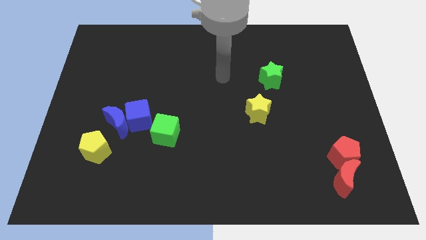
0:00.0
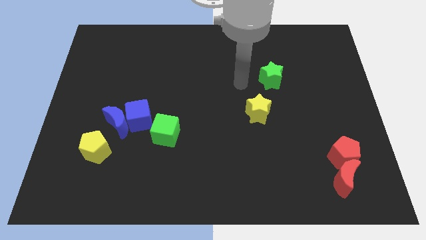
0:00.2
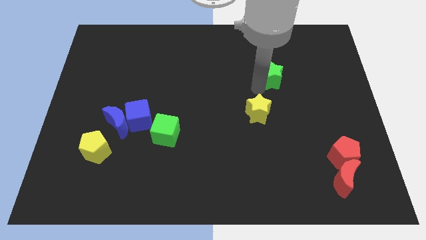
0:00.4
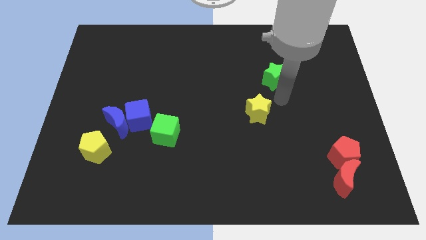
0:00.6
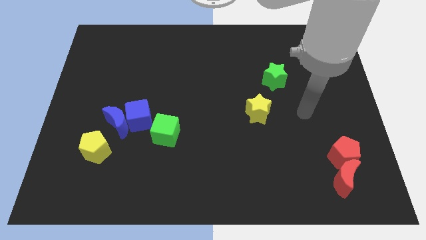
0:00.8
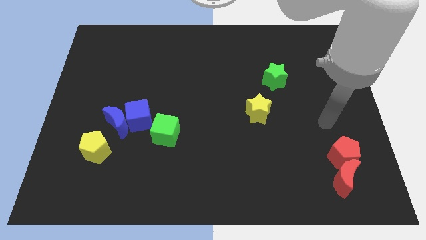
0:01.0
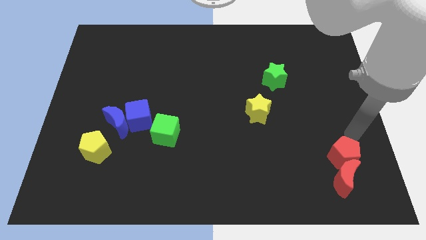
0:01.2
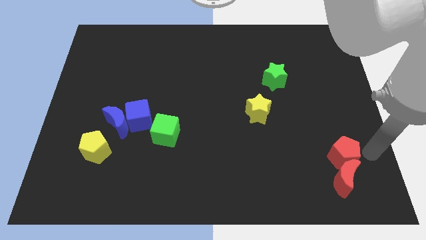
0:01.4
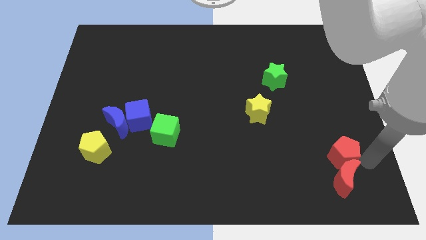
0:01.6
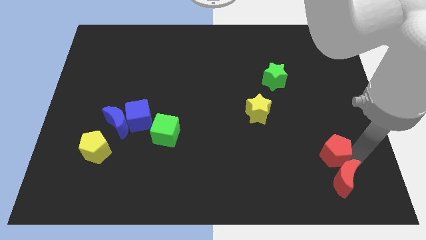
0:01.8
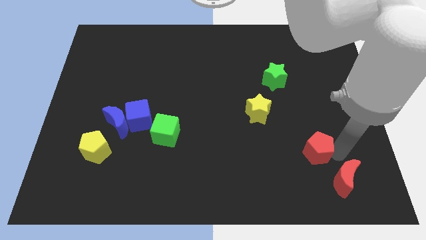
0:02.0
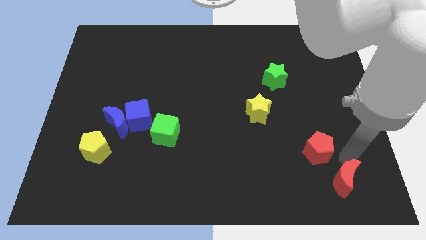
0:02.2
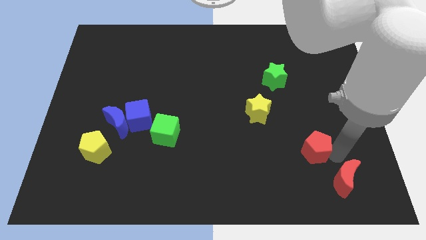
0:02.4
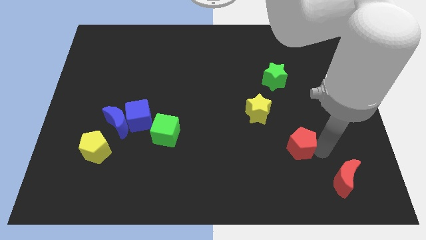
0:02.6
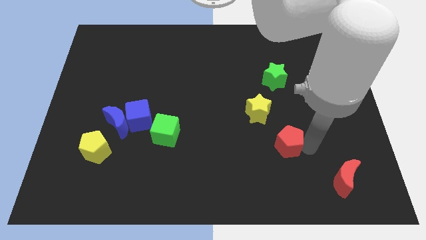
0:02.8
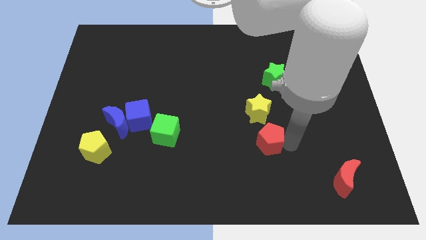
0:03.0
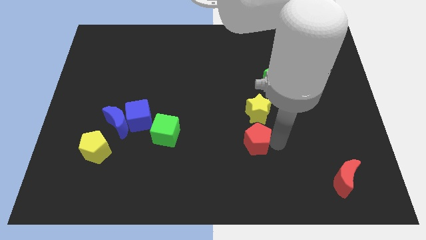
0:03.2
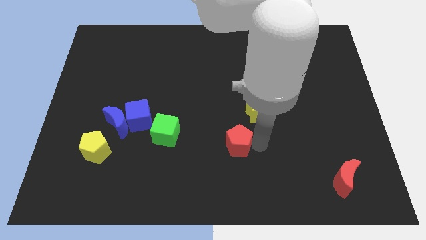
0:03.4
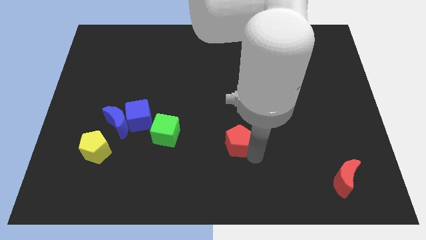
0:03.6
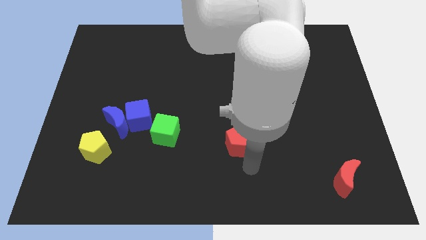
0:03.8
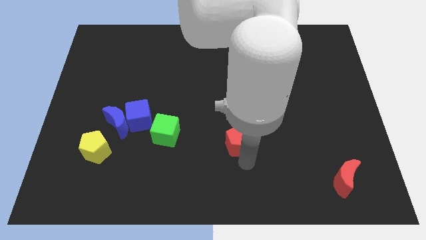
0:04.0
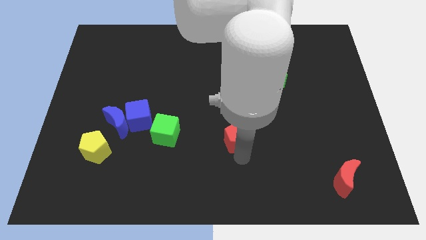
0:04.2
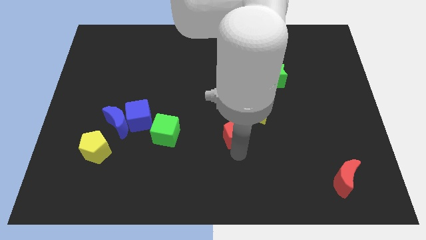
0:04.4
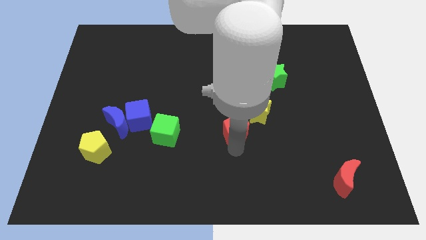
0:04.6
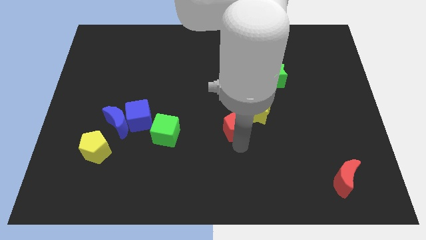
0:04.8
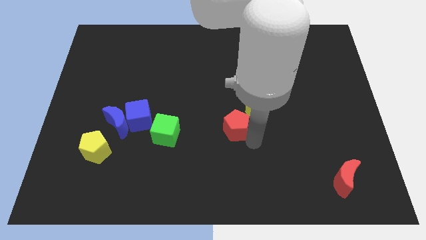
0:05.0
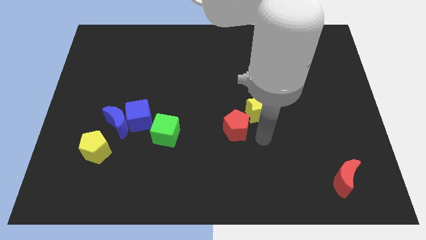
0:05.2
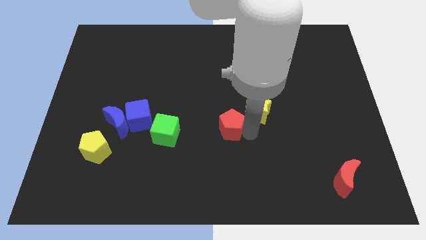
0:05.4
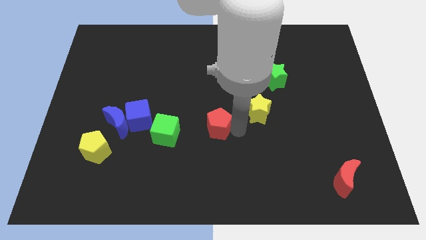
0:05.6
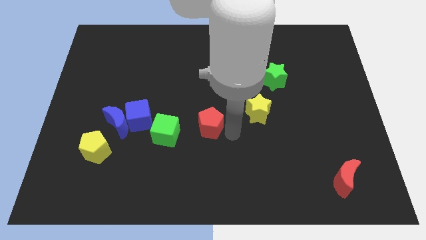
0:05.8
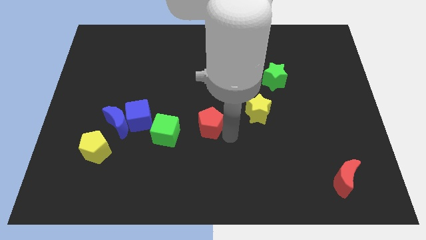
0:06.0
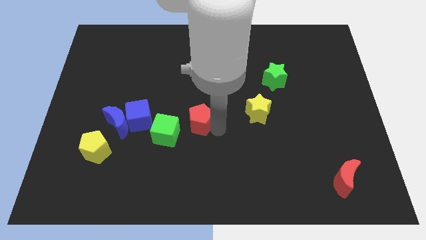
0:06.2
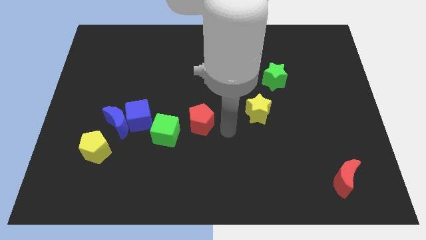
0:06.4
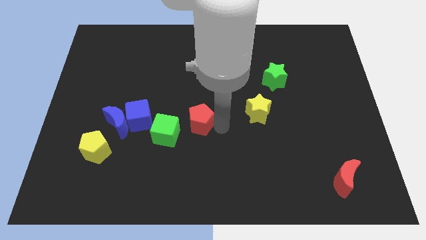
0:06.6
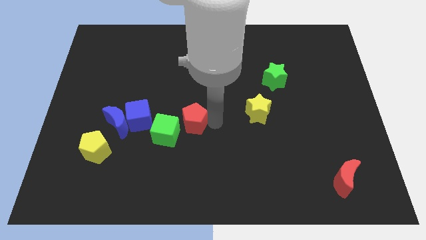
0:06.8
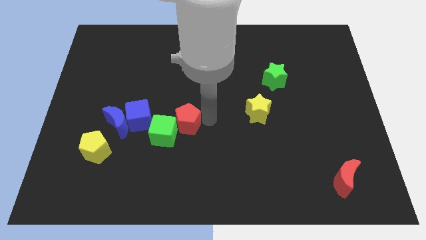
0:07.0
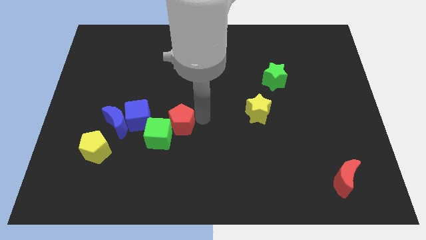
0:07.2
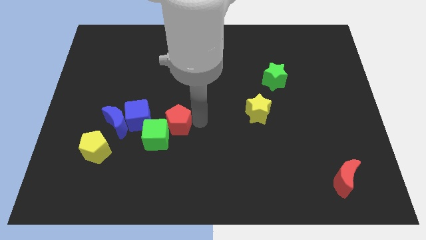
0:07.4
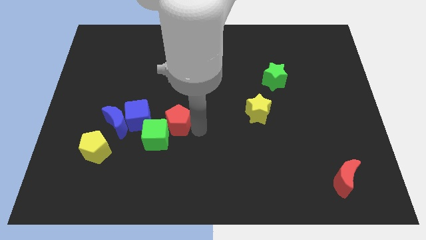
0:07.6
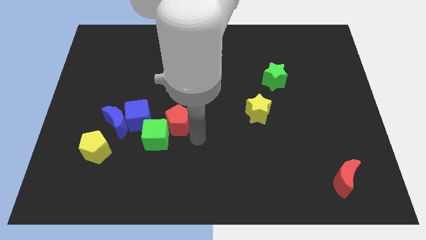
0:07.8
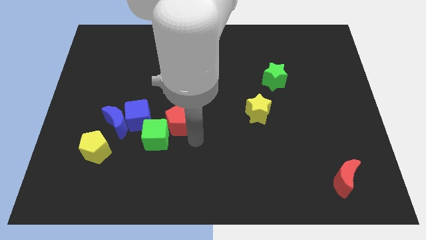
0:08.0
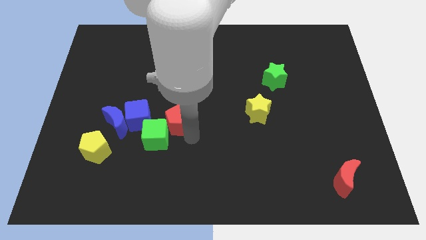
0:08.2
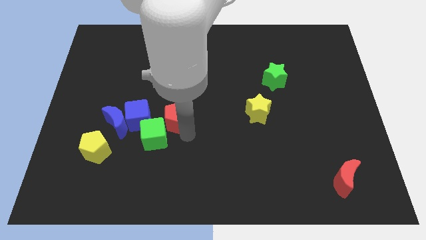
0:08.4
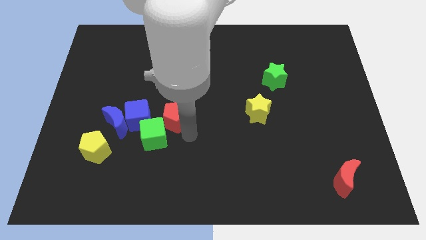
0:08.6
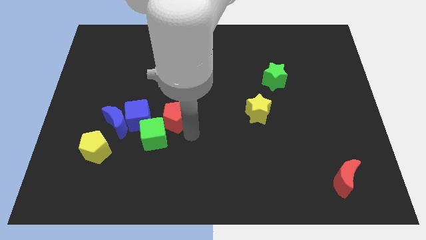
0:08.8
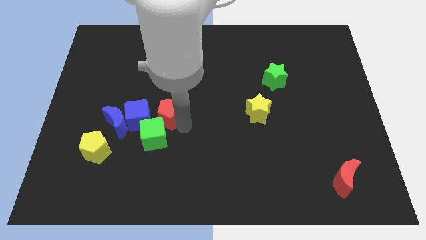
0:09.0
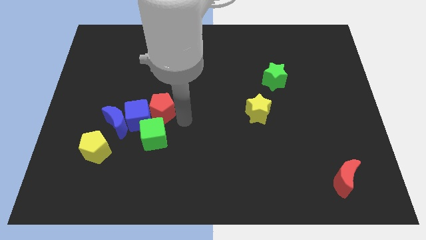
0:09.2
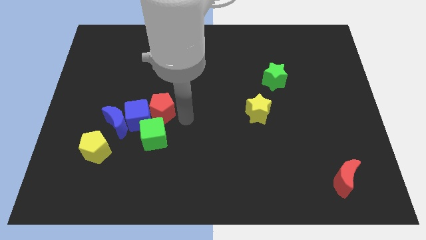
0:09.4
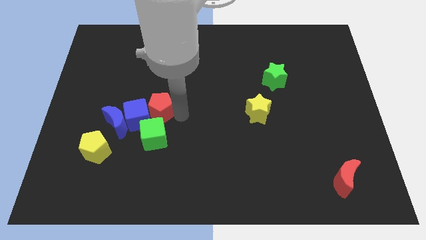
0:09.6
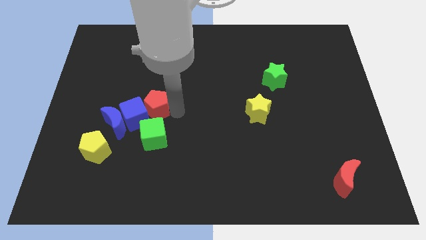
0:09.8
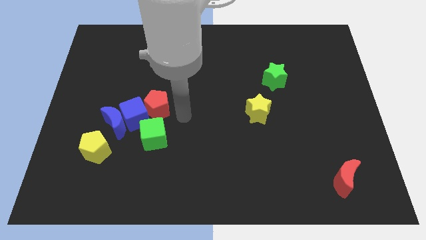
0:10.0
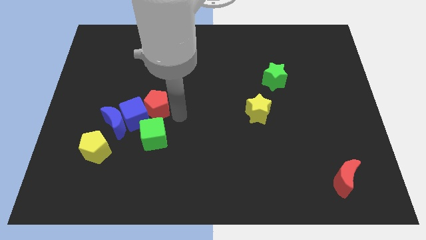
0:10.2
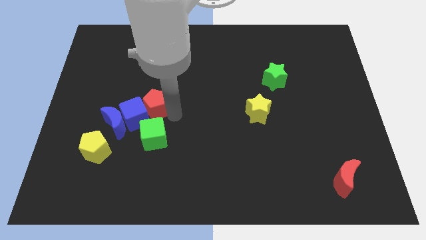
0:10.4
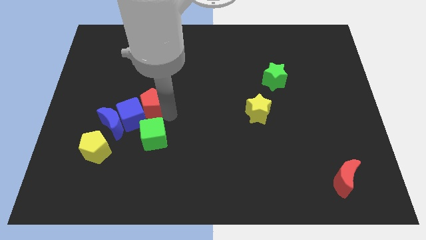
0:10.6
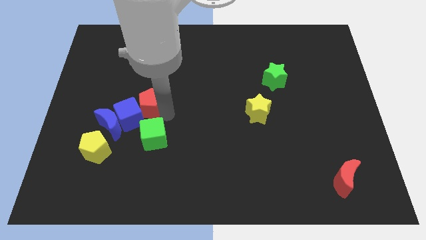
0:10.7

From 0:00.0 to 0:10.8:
move the red pentagon to the top left of the green cube

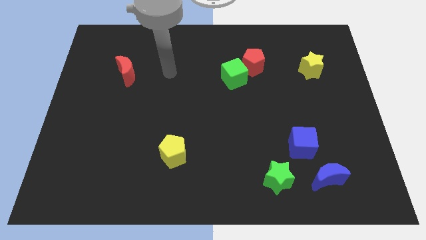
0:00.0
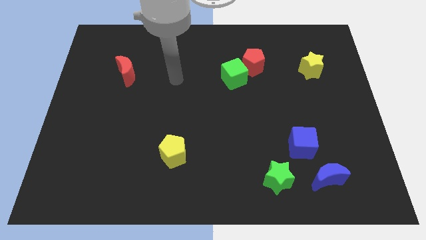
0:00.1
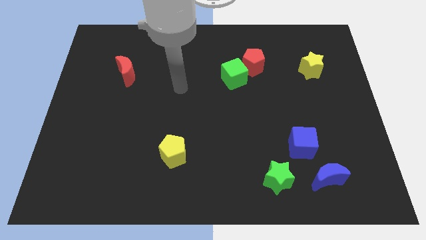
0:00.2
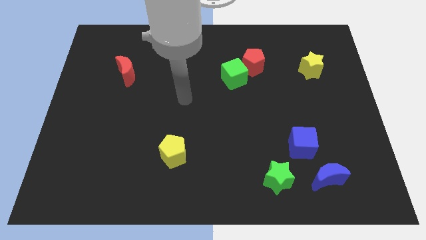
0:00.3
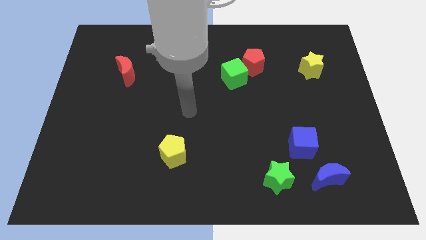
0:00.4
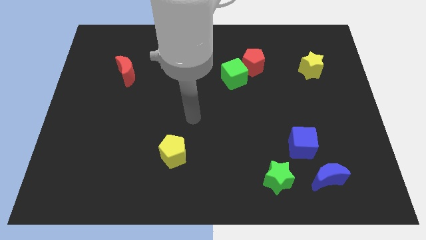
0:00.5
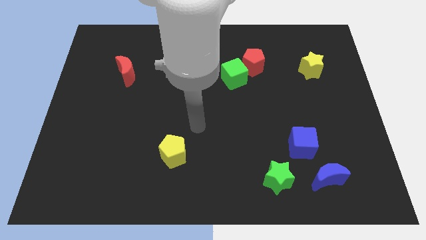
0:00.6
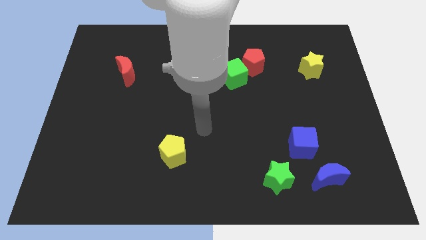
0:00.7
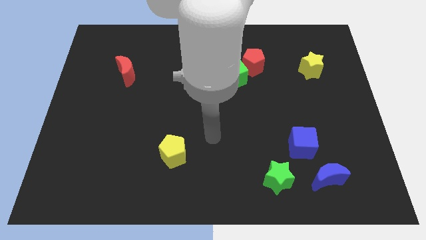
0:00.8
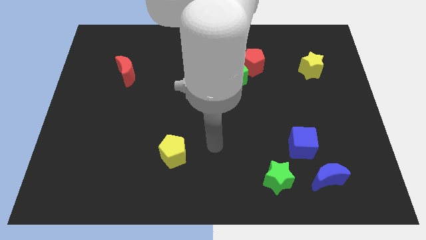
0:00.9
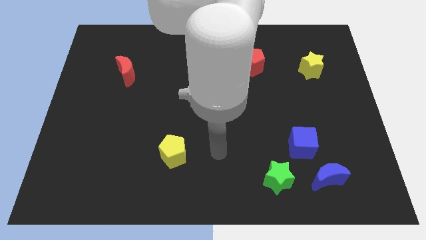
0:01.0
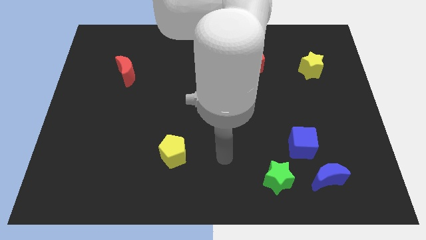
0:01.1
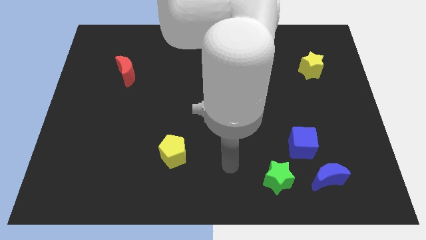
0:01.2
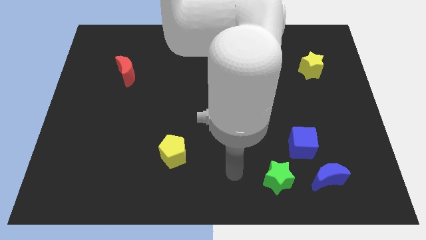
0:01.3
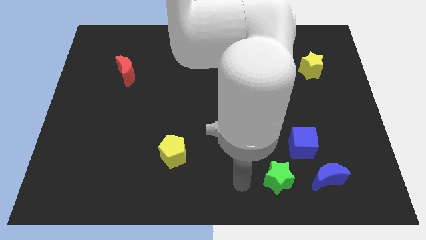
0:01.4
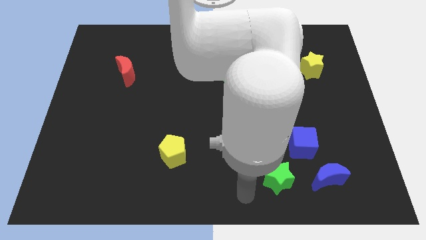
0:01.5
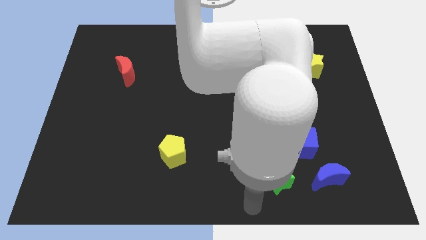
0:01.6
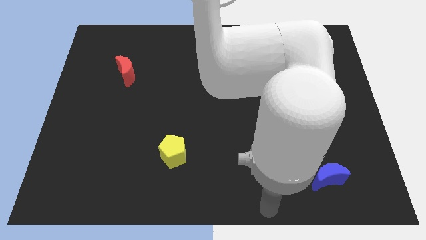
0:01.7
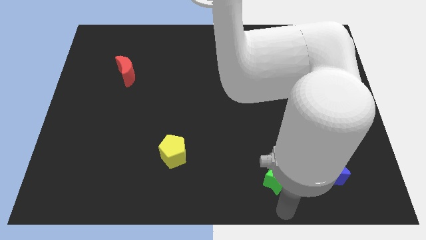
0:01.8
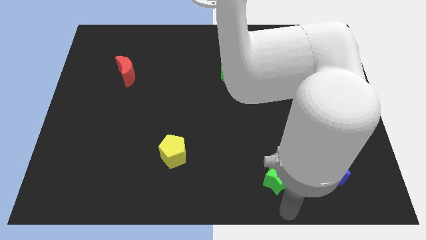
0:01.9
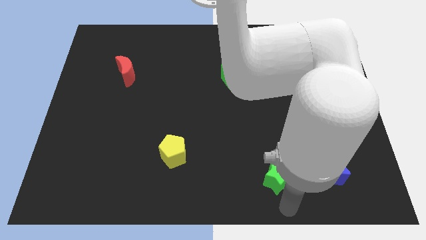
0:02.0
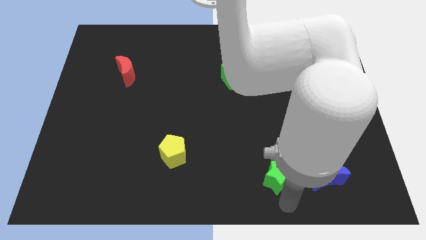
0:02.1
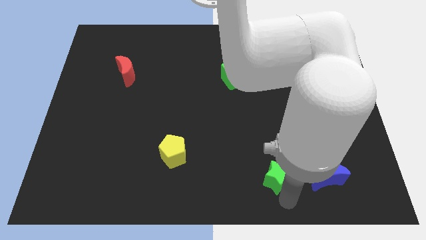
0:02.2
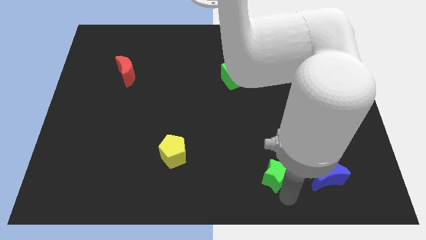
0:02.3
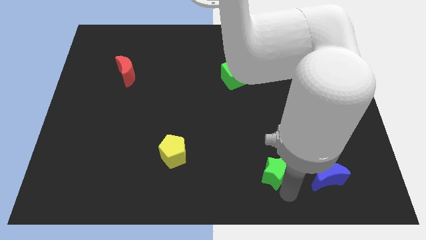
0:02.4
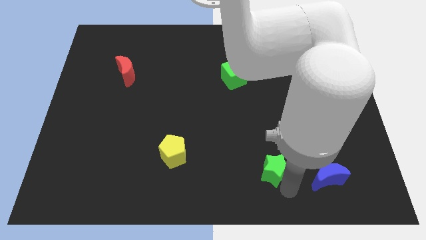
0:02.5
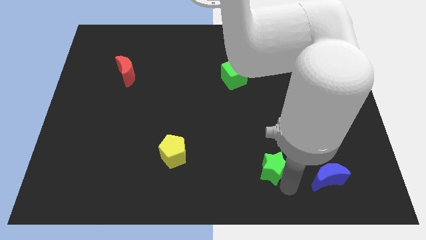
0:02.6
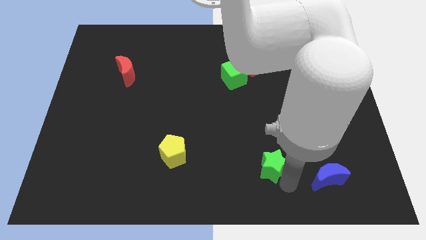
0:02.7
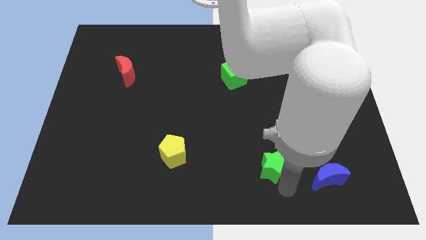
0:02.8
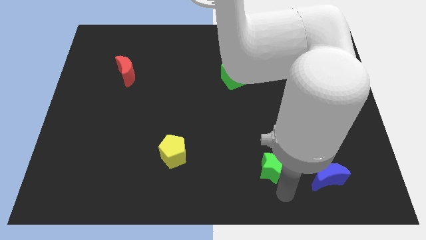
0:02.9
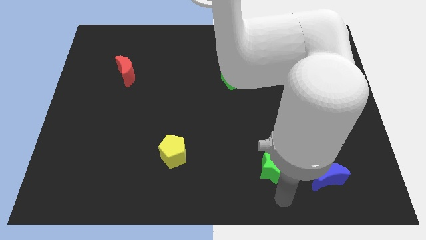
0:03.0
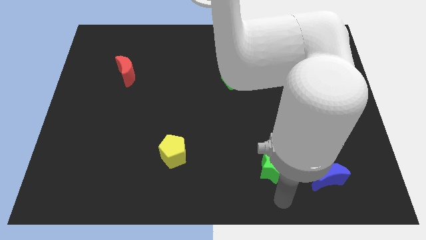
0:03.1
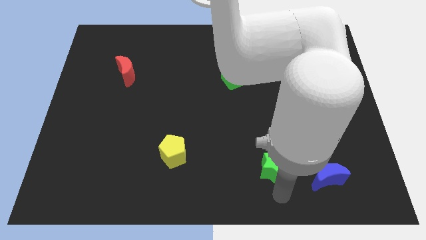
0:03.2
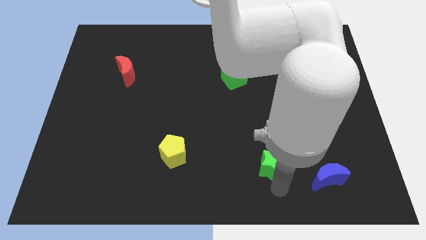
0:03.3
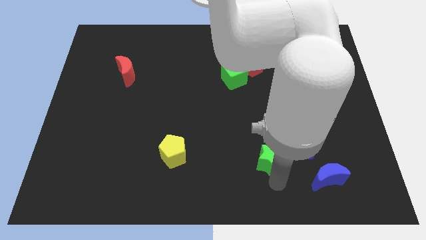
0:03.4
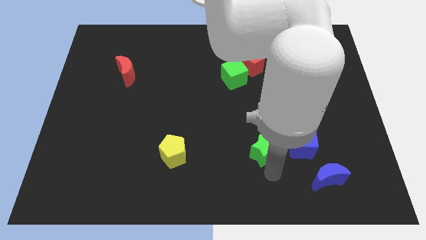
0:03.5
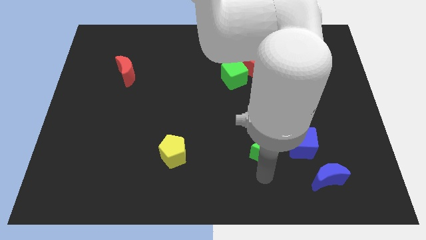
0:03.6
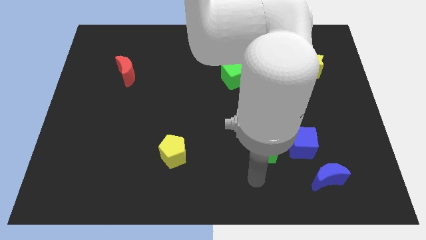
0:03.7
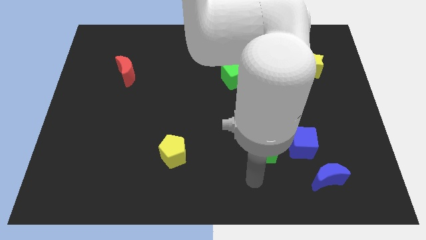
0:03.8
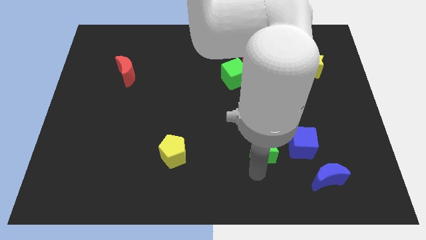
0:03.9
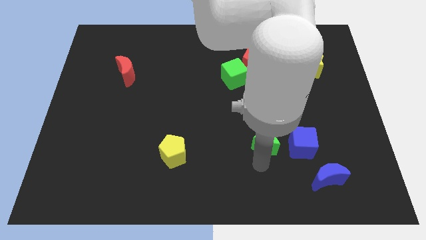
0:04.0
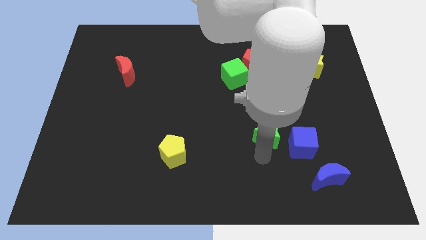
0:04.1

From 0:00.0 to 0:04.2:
slide the green star to the top left of the blue cube
